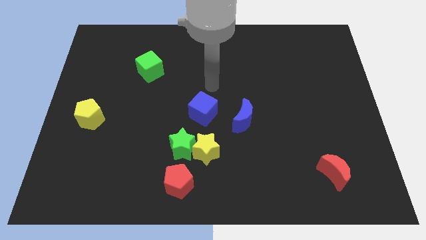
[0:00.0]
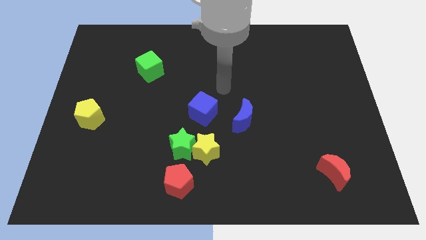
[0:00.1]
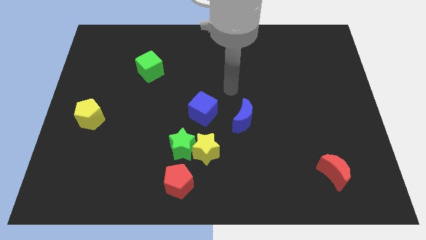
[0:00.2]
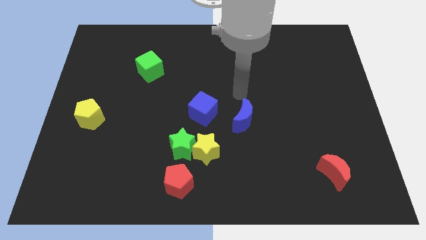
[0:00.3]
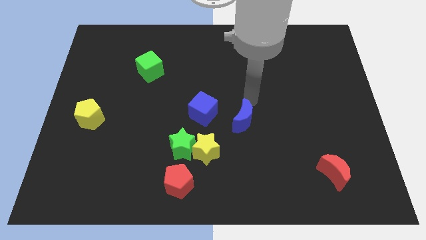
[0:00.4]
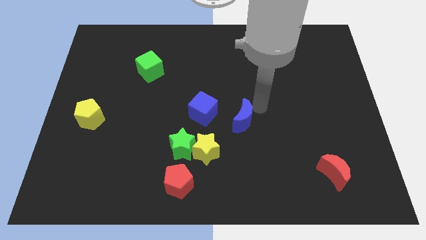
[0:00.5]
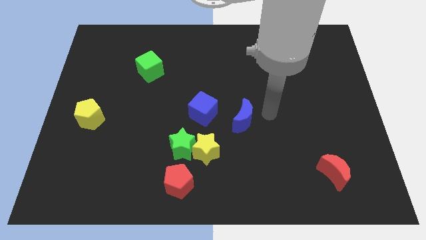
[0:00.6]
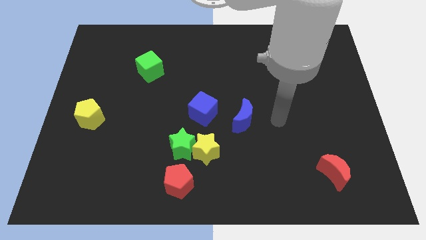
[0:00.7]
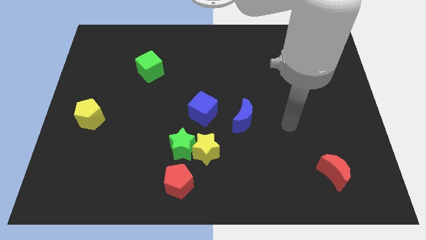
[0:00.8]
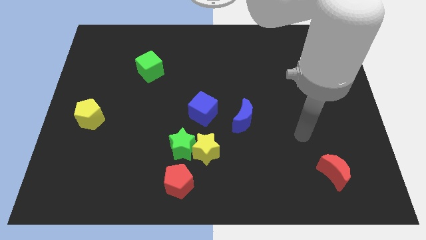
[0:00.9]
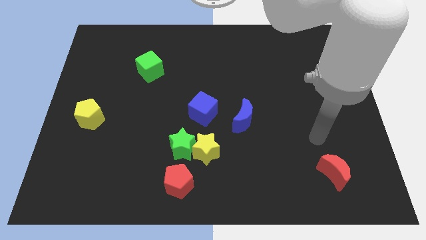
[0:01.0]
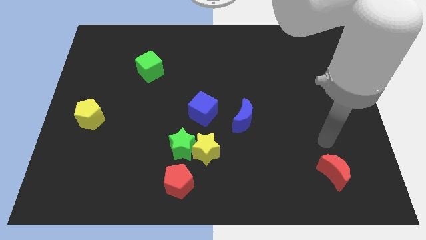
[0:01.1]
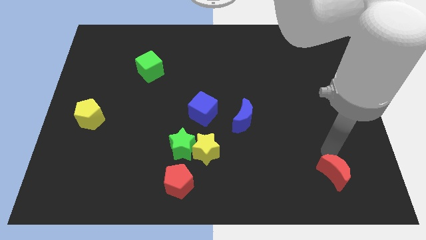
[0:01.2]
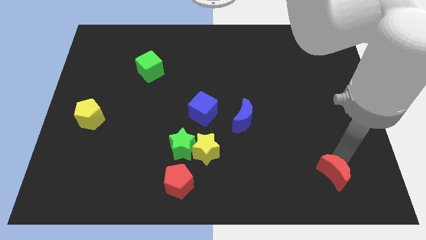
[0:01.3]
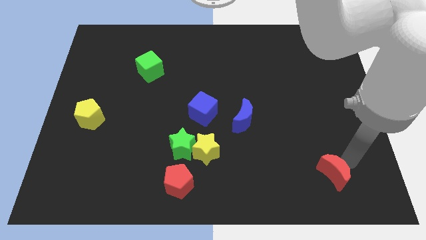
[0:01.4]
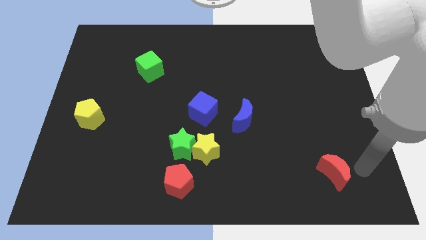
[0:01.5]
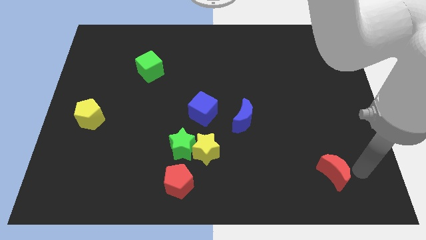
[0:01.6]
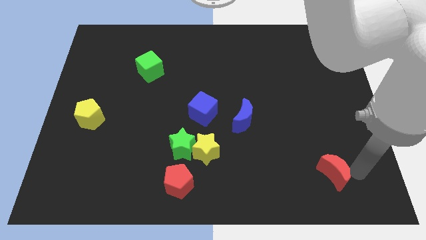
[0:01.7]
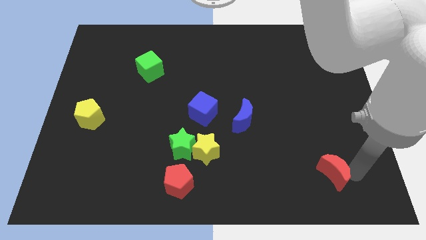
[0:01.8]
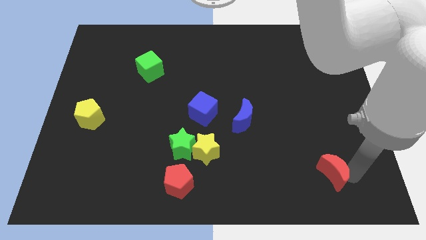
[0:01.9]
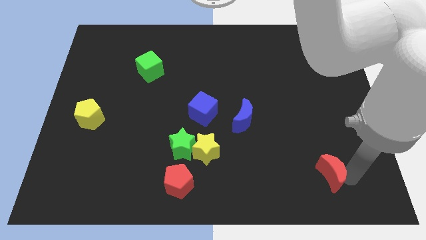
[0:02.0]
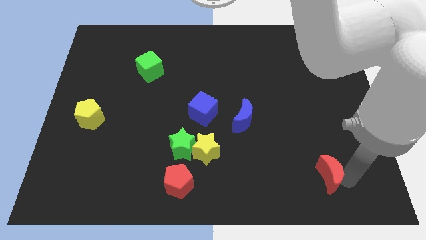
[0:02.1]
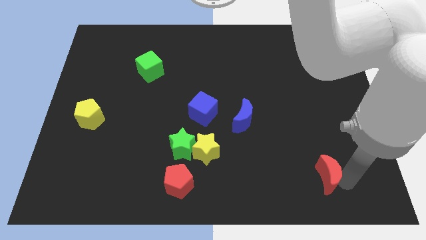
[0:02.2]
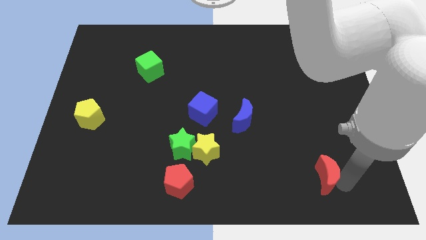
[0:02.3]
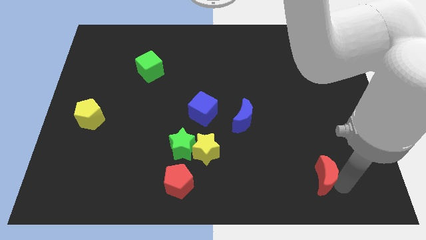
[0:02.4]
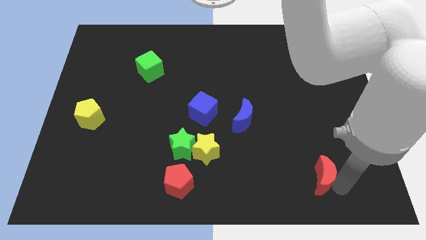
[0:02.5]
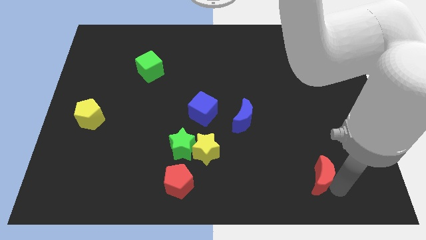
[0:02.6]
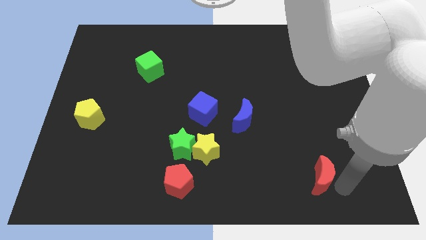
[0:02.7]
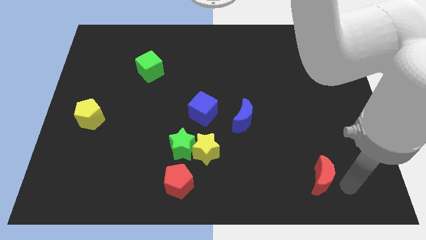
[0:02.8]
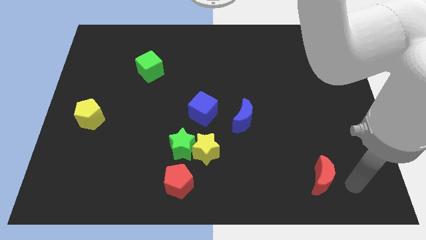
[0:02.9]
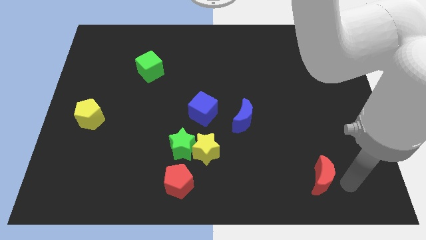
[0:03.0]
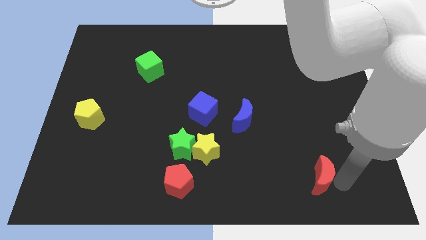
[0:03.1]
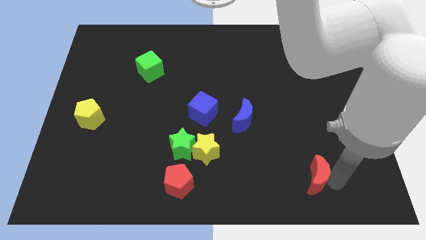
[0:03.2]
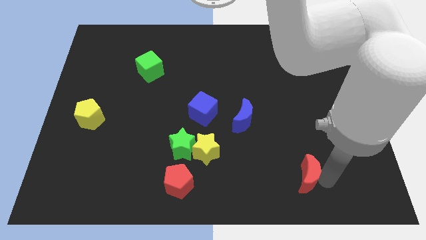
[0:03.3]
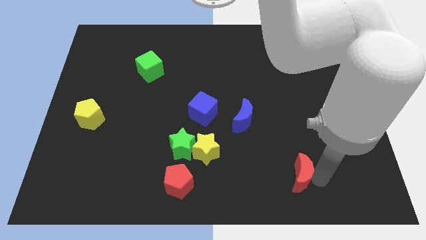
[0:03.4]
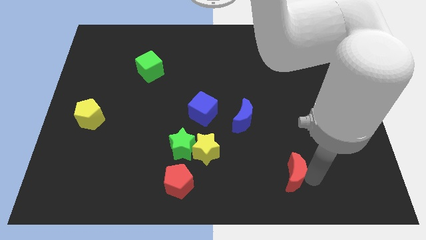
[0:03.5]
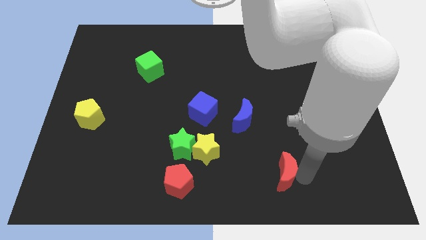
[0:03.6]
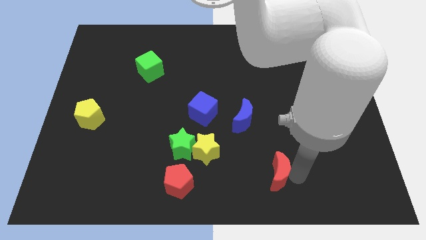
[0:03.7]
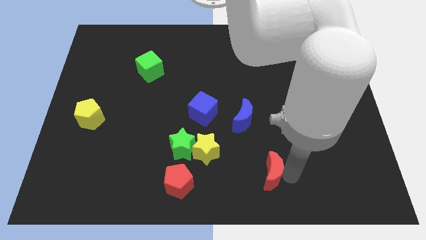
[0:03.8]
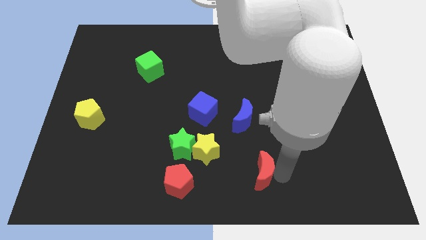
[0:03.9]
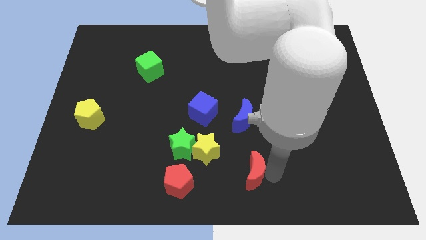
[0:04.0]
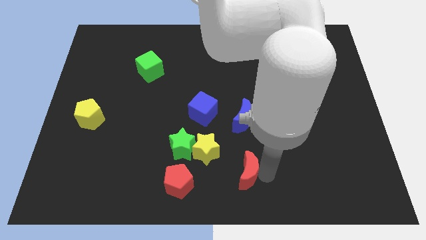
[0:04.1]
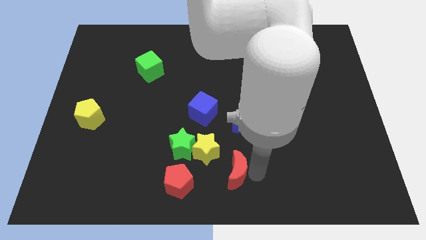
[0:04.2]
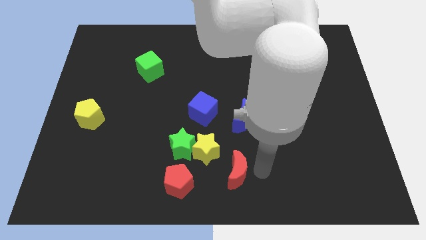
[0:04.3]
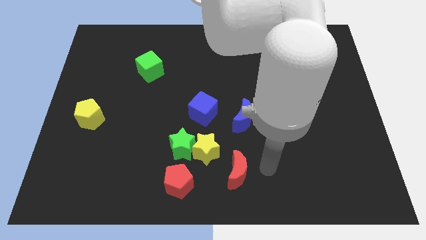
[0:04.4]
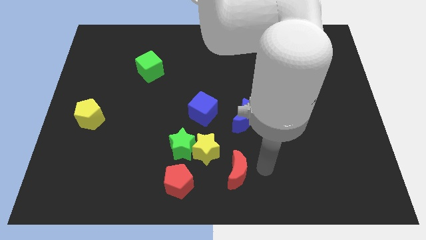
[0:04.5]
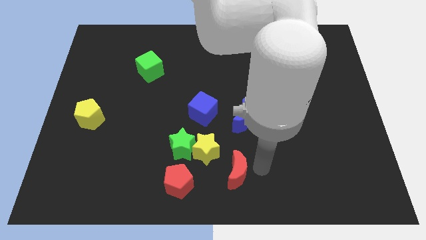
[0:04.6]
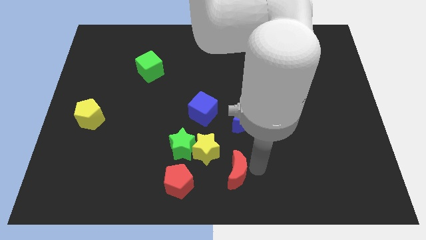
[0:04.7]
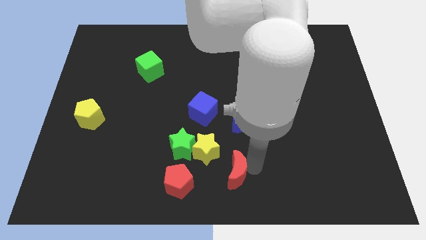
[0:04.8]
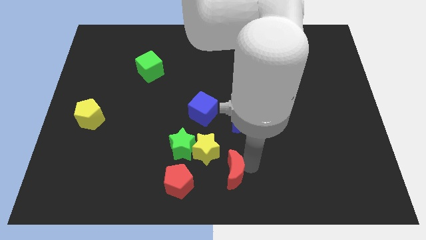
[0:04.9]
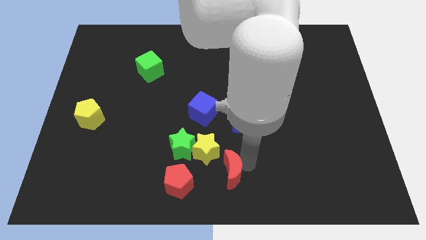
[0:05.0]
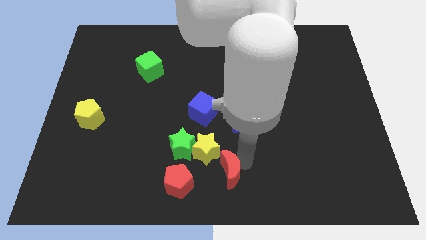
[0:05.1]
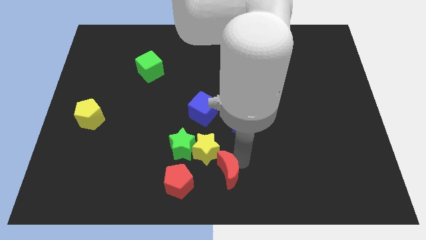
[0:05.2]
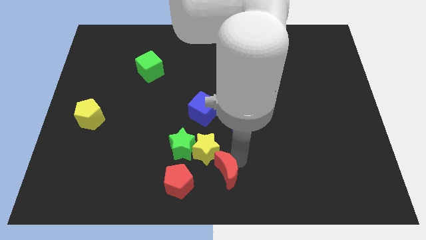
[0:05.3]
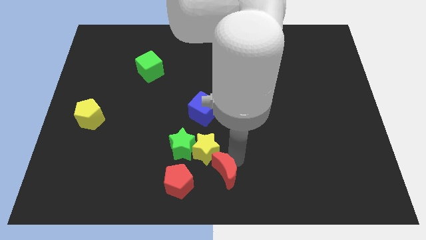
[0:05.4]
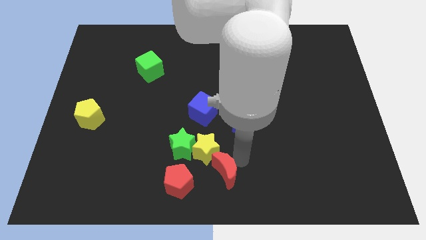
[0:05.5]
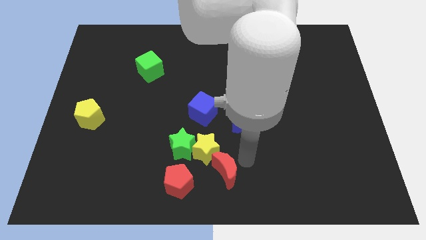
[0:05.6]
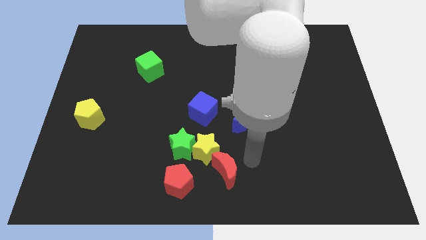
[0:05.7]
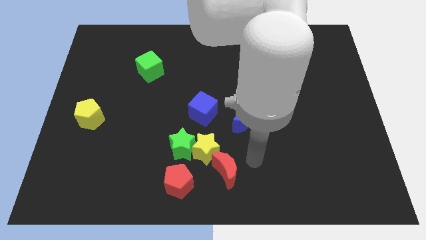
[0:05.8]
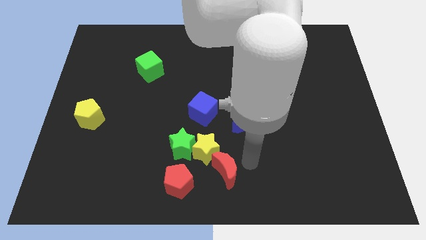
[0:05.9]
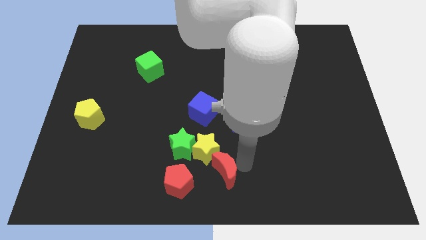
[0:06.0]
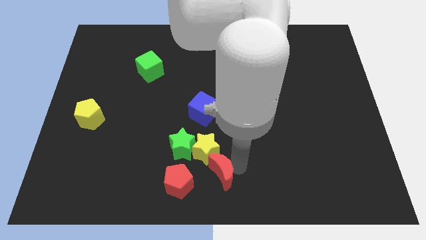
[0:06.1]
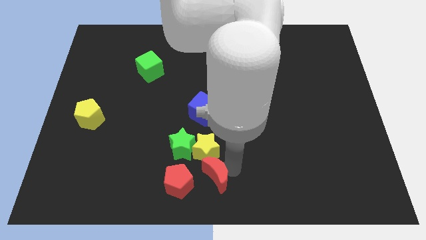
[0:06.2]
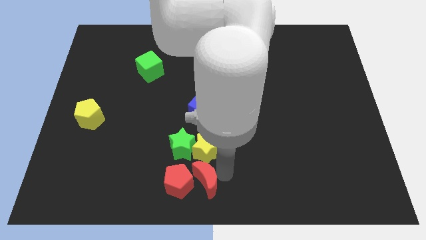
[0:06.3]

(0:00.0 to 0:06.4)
slide the red moon close to the red pentagon

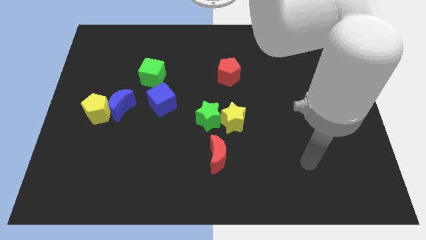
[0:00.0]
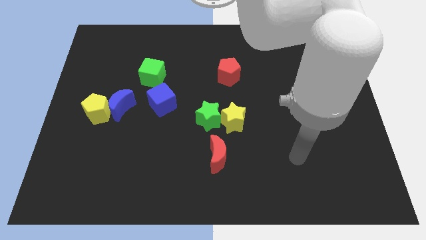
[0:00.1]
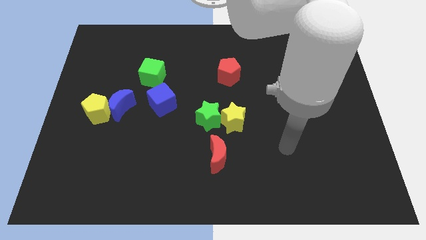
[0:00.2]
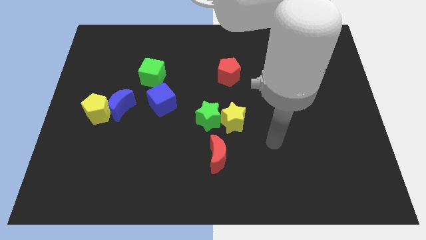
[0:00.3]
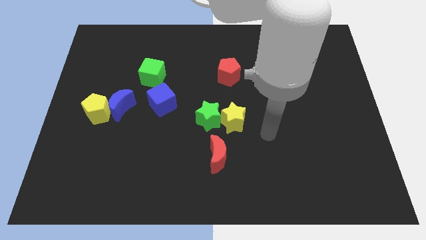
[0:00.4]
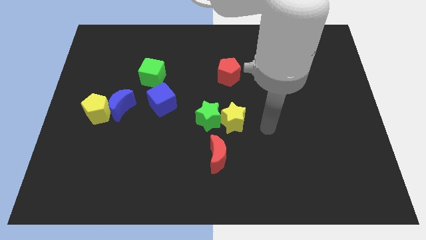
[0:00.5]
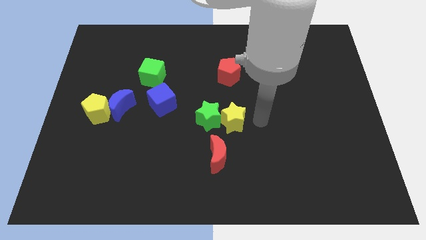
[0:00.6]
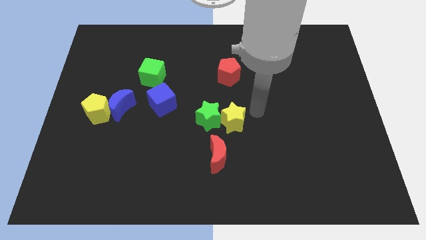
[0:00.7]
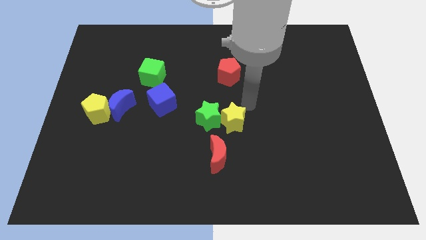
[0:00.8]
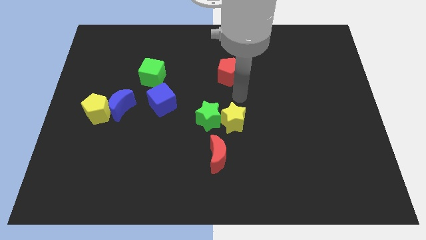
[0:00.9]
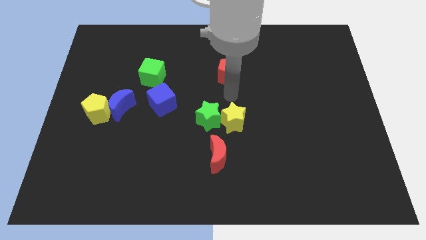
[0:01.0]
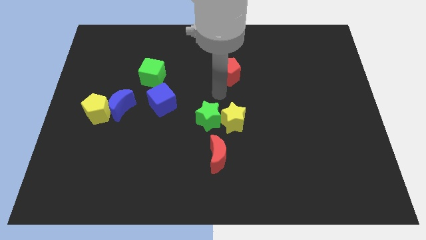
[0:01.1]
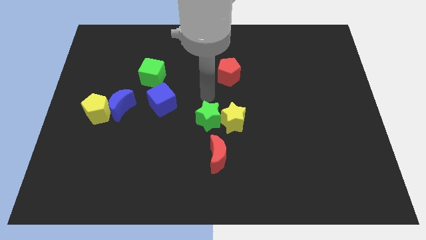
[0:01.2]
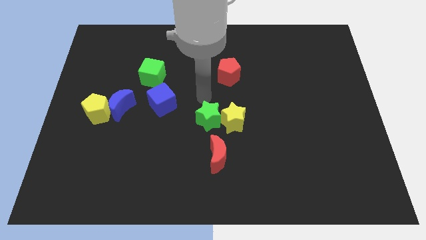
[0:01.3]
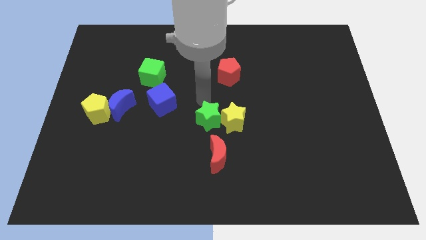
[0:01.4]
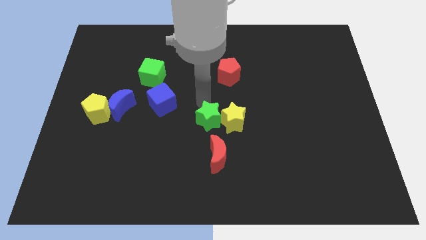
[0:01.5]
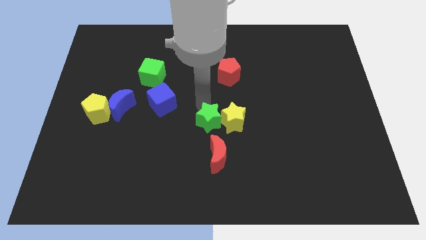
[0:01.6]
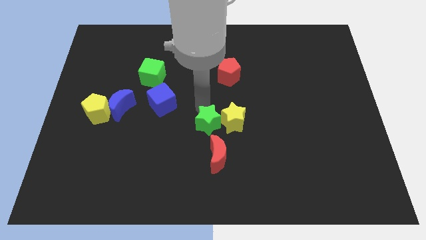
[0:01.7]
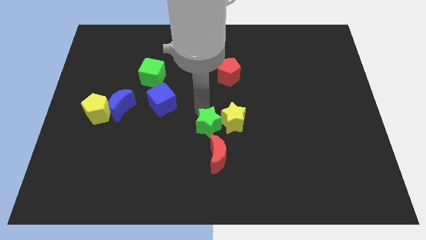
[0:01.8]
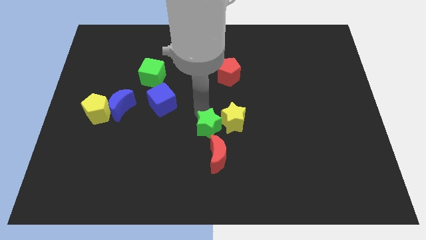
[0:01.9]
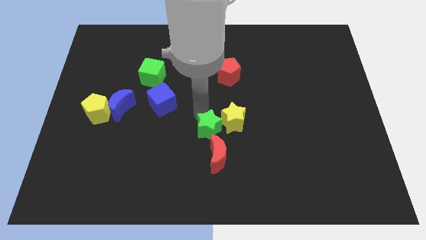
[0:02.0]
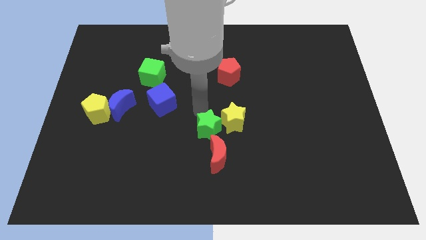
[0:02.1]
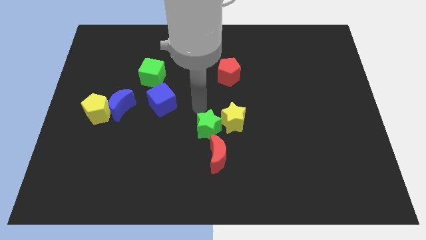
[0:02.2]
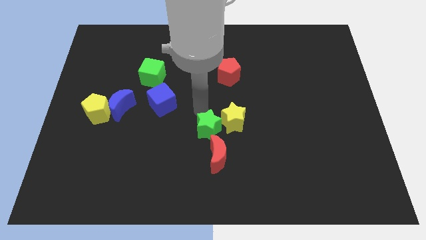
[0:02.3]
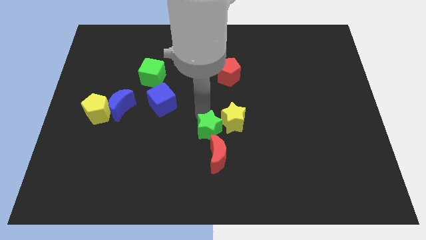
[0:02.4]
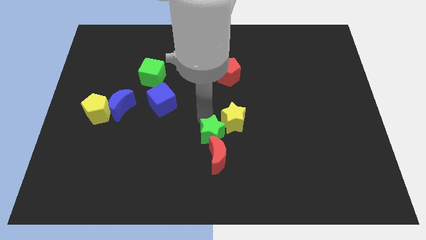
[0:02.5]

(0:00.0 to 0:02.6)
push the green star towards the red moon
